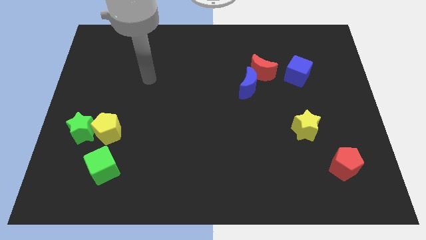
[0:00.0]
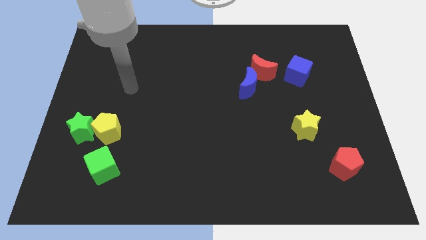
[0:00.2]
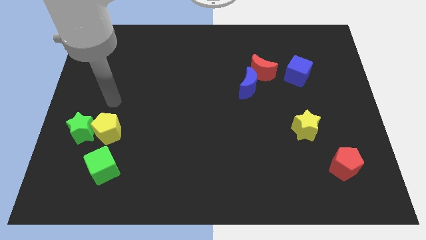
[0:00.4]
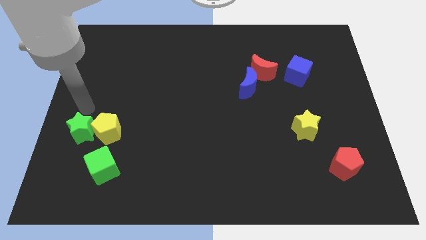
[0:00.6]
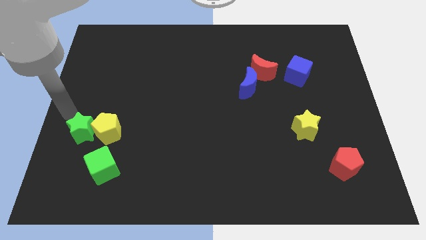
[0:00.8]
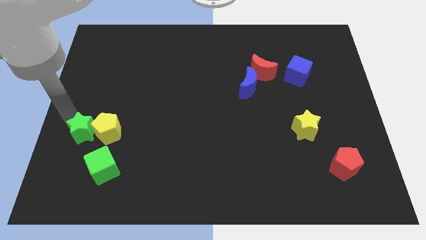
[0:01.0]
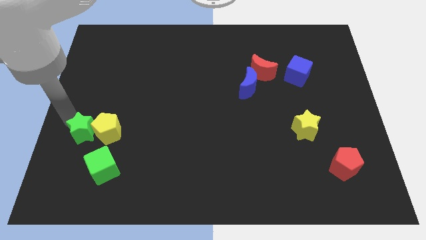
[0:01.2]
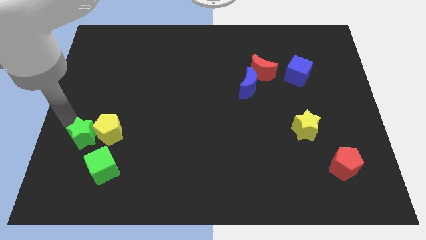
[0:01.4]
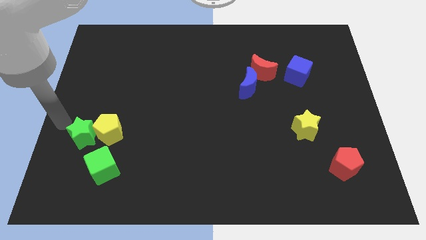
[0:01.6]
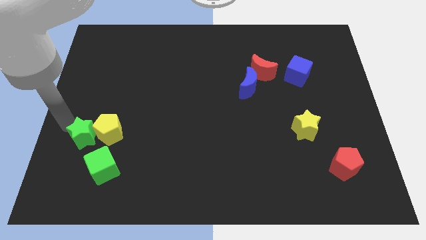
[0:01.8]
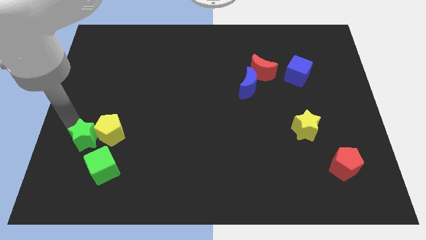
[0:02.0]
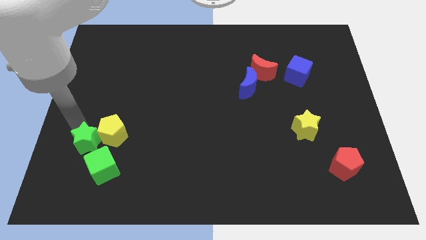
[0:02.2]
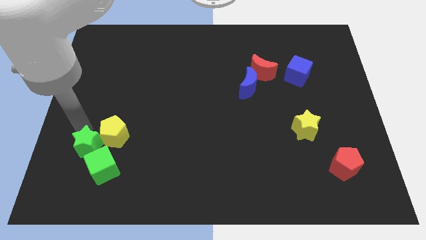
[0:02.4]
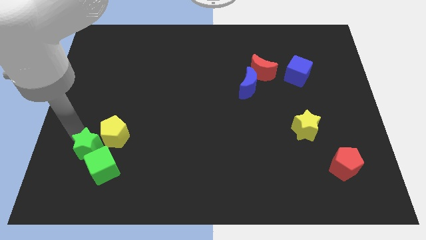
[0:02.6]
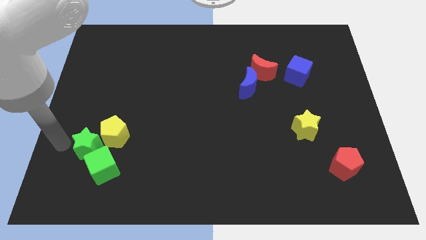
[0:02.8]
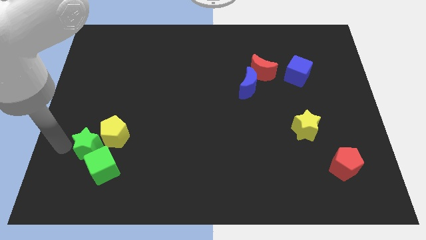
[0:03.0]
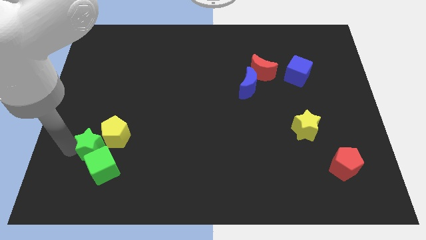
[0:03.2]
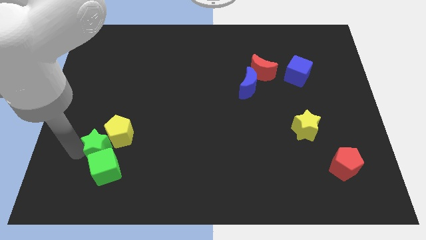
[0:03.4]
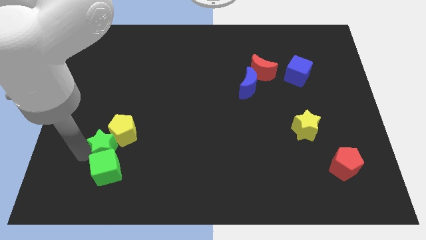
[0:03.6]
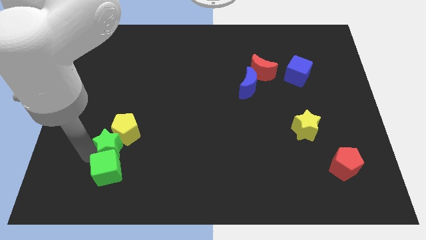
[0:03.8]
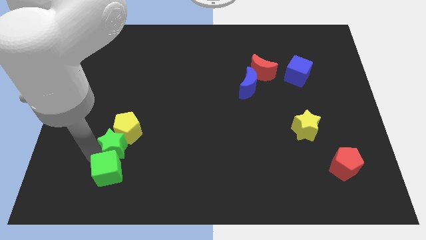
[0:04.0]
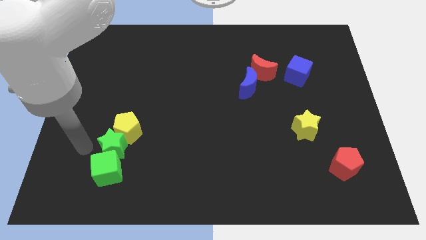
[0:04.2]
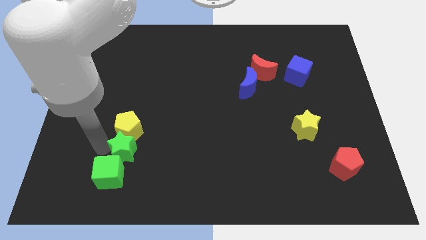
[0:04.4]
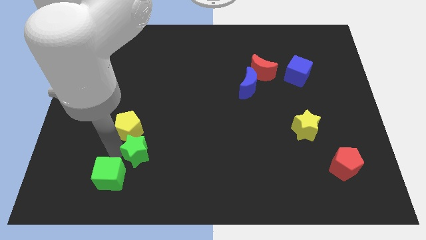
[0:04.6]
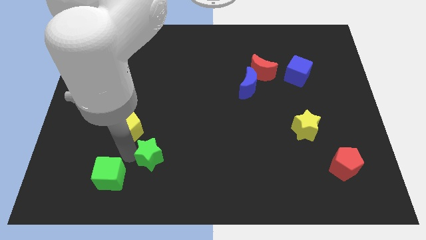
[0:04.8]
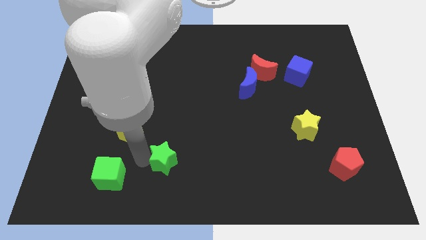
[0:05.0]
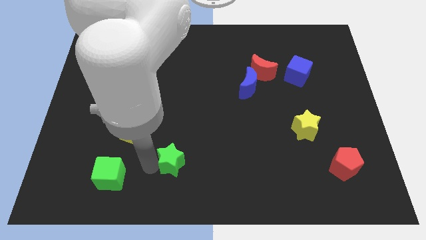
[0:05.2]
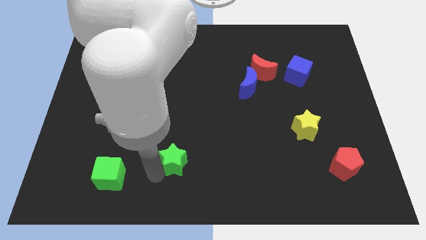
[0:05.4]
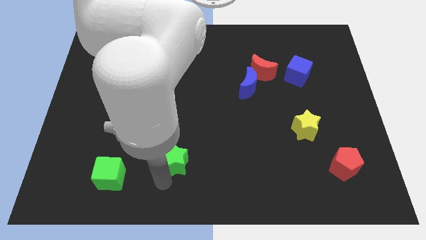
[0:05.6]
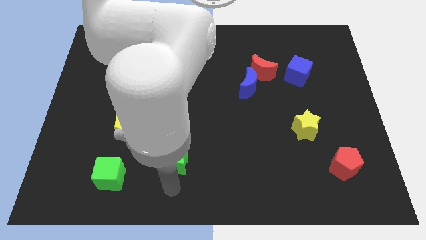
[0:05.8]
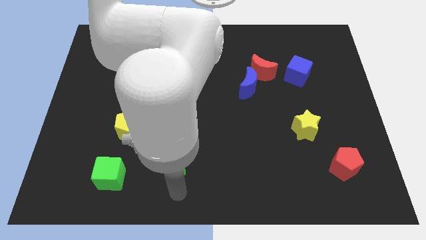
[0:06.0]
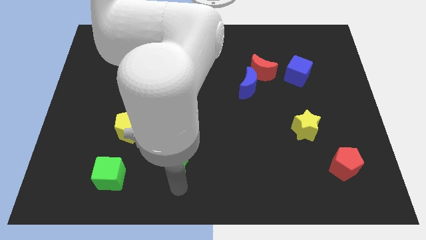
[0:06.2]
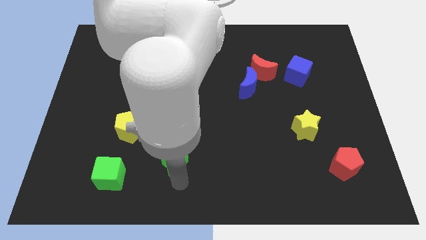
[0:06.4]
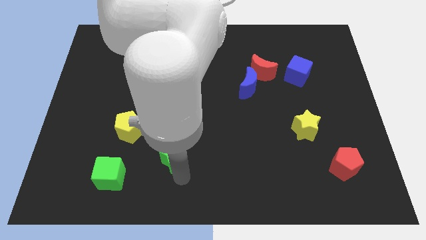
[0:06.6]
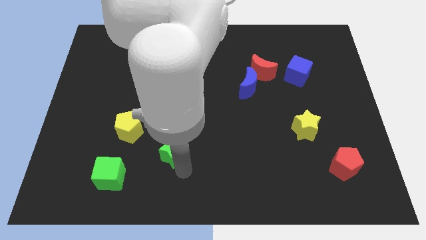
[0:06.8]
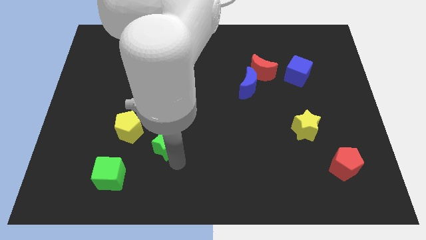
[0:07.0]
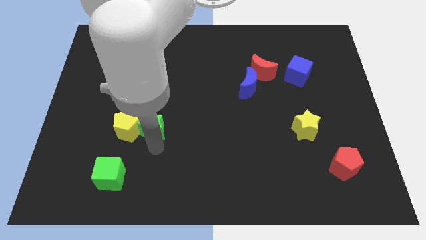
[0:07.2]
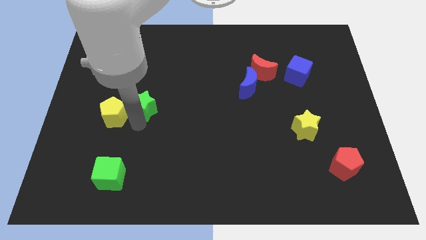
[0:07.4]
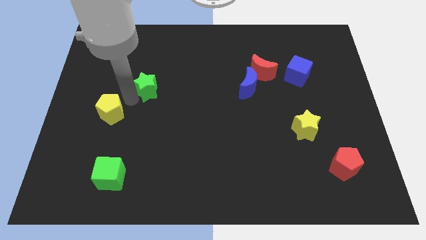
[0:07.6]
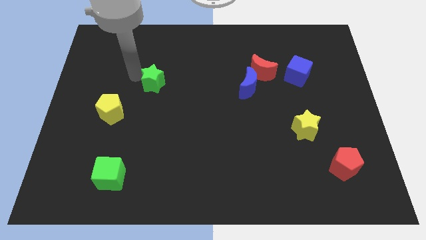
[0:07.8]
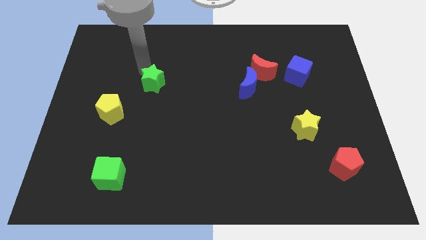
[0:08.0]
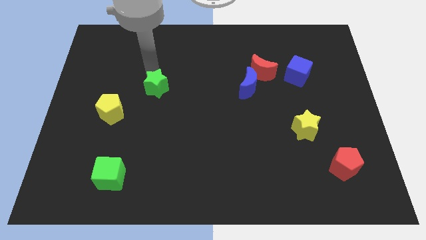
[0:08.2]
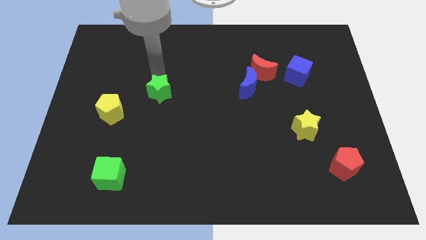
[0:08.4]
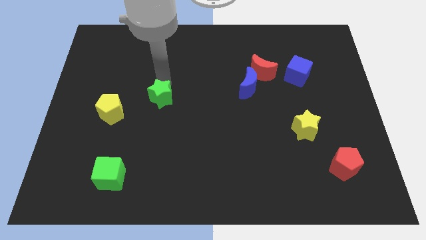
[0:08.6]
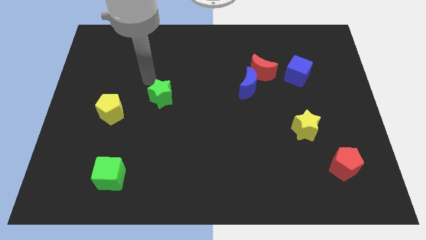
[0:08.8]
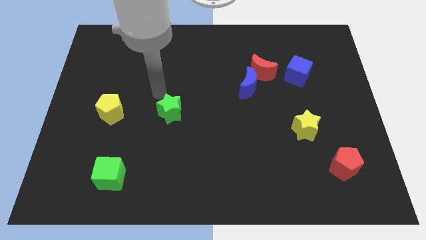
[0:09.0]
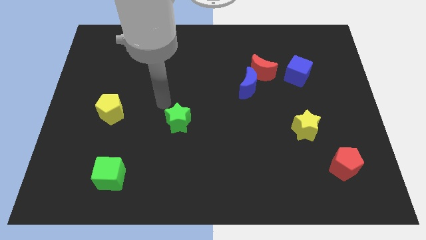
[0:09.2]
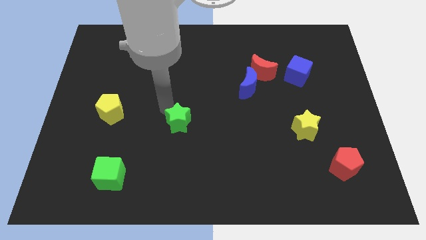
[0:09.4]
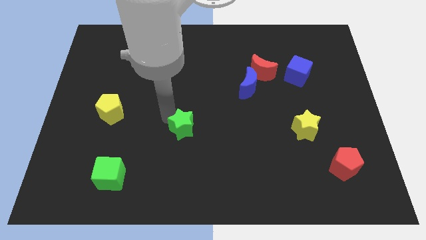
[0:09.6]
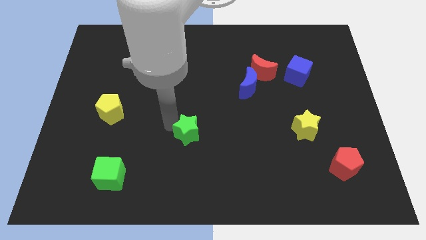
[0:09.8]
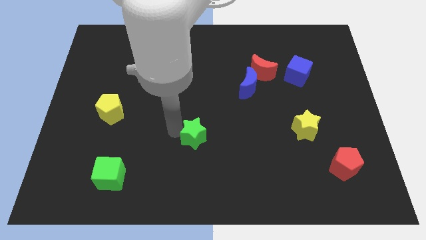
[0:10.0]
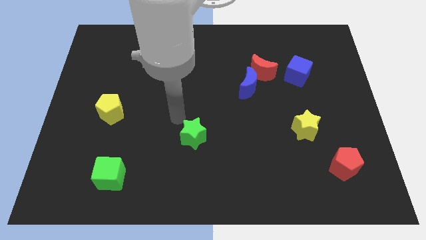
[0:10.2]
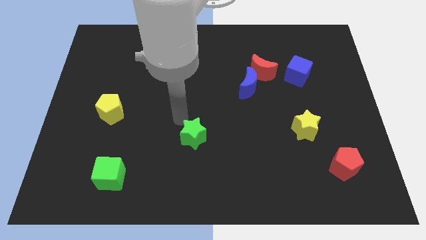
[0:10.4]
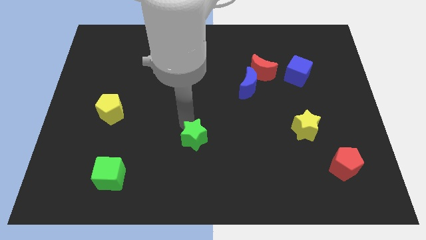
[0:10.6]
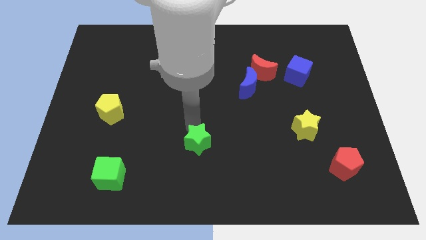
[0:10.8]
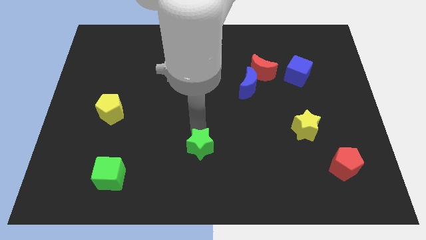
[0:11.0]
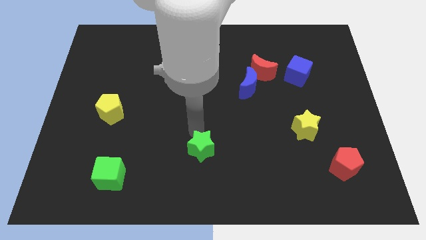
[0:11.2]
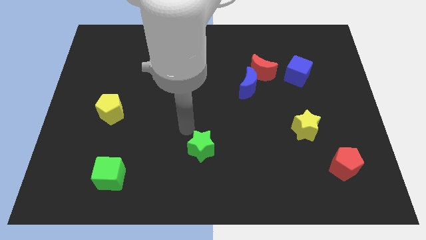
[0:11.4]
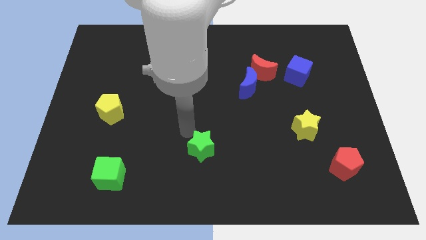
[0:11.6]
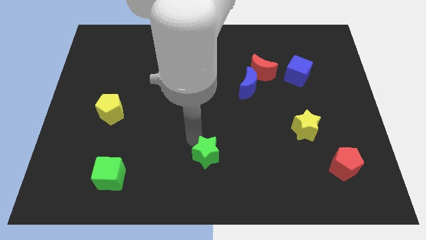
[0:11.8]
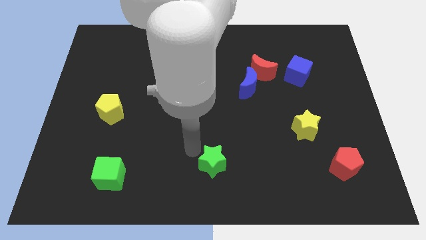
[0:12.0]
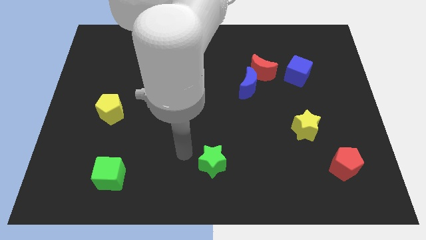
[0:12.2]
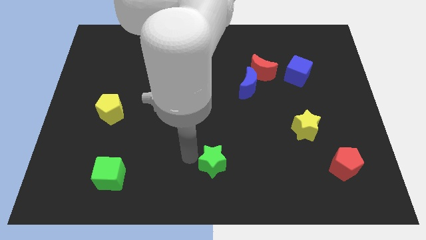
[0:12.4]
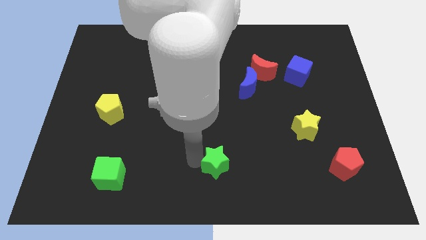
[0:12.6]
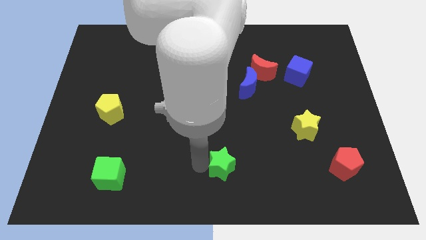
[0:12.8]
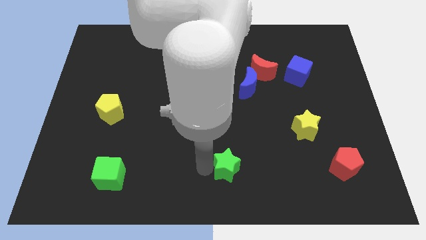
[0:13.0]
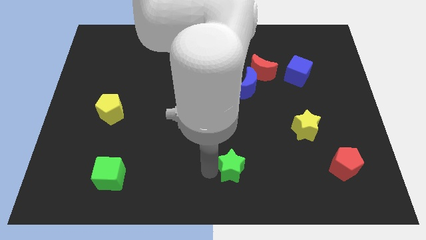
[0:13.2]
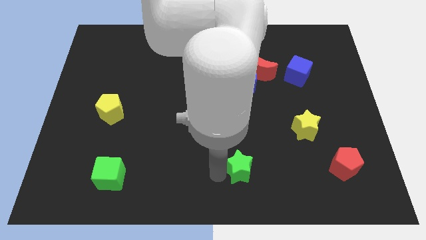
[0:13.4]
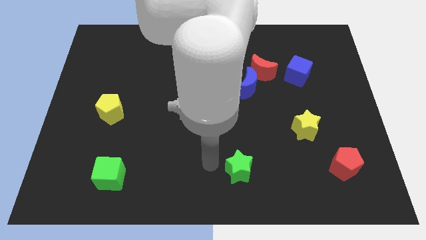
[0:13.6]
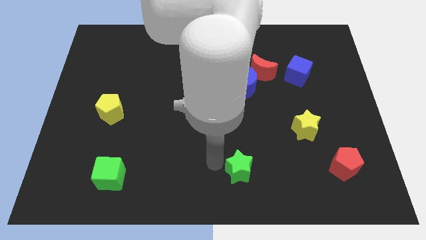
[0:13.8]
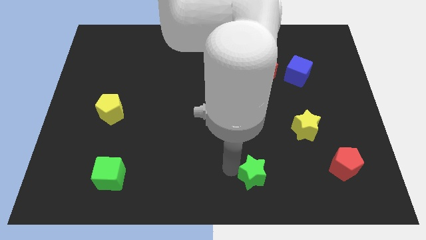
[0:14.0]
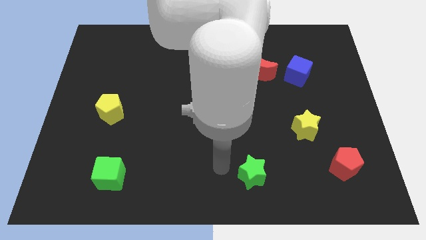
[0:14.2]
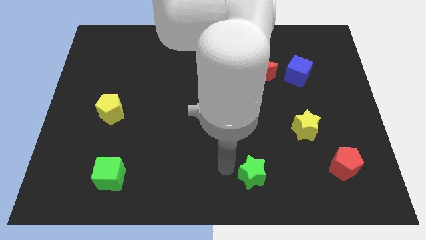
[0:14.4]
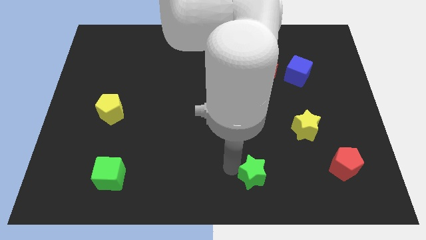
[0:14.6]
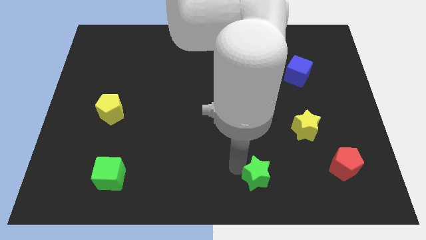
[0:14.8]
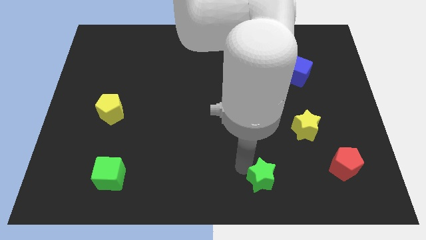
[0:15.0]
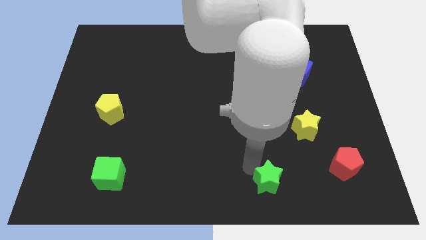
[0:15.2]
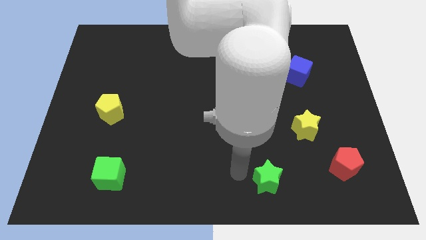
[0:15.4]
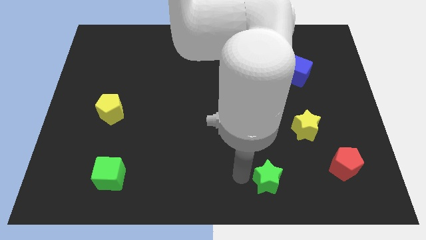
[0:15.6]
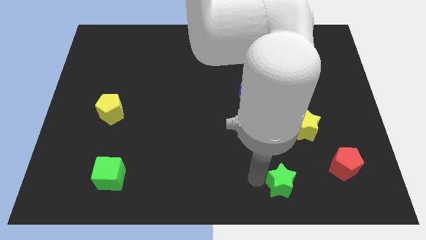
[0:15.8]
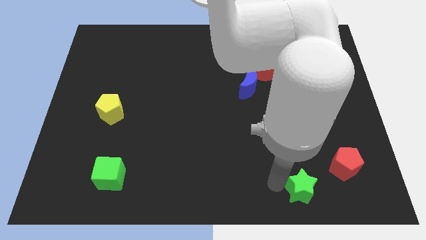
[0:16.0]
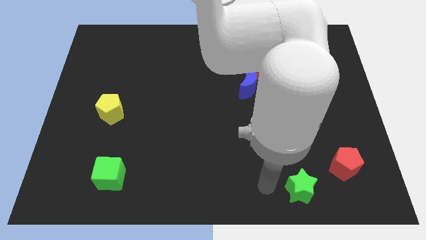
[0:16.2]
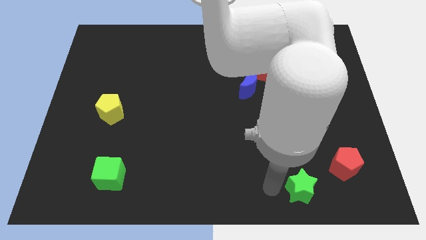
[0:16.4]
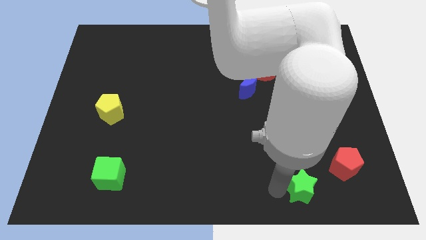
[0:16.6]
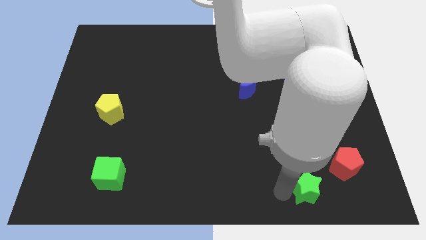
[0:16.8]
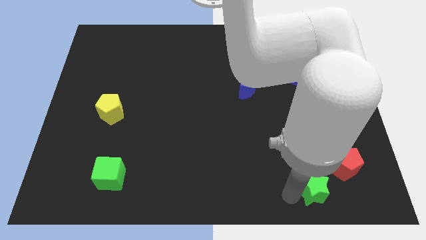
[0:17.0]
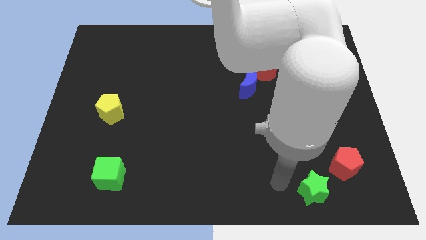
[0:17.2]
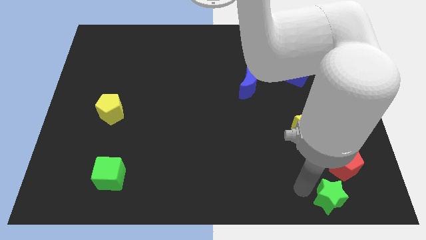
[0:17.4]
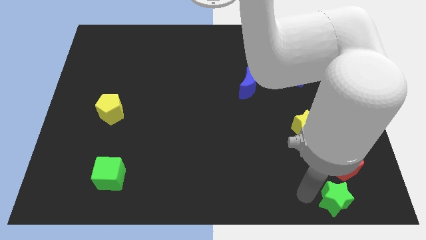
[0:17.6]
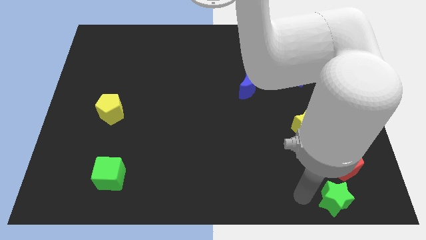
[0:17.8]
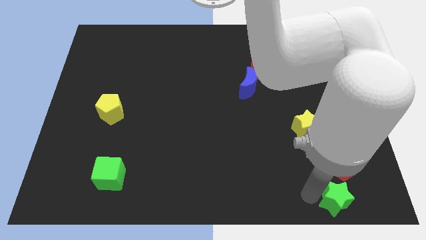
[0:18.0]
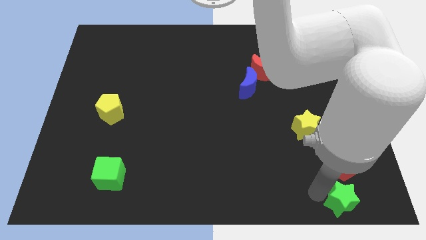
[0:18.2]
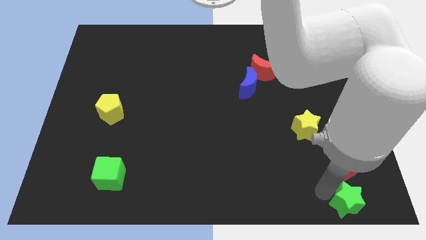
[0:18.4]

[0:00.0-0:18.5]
move the green star to the bottom right
